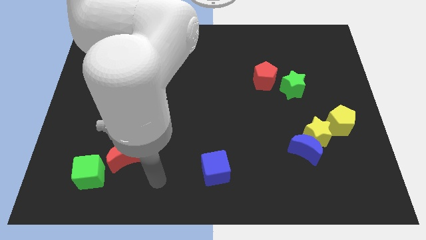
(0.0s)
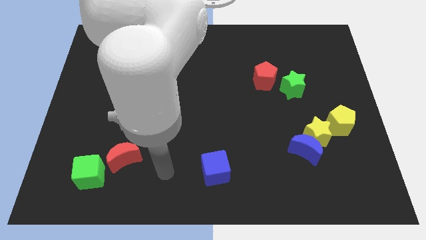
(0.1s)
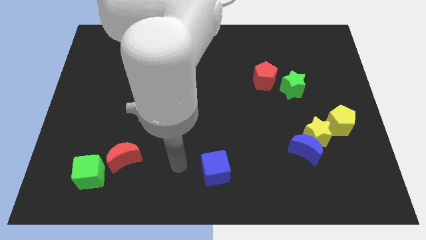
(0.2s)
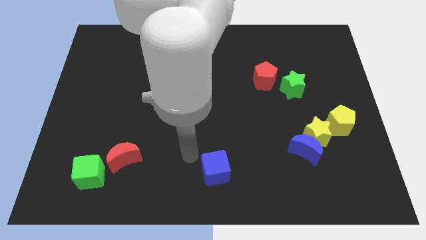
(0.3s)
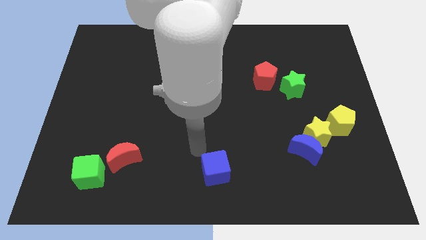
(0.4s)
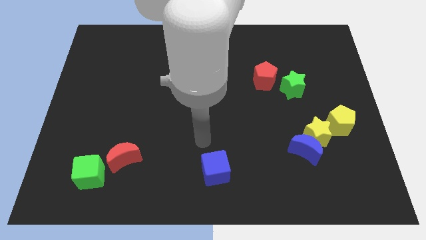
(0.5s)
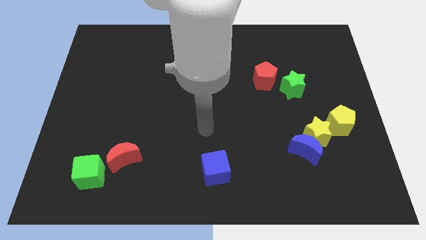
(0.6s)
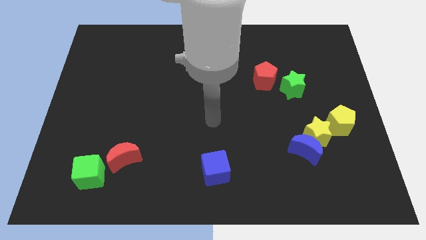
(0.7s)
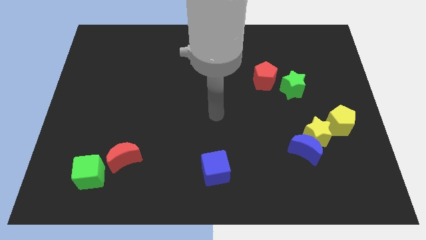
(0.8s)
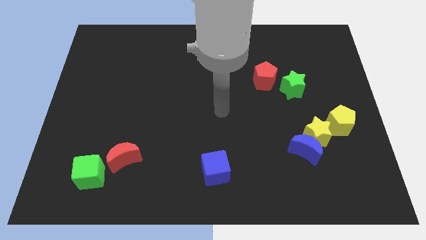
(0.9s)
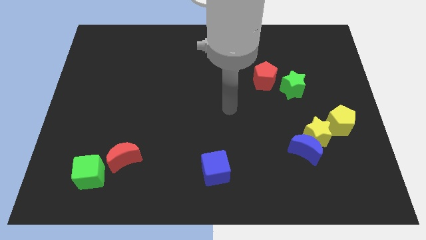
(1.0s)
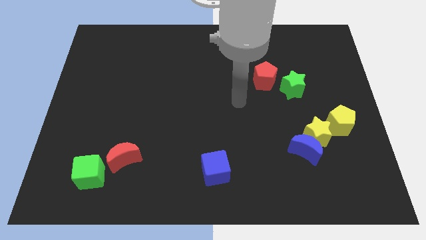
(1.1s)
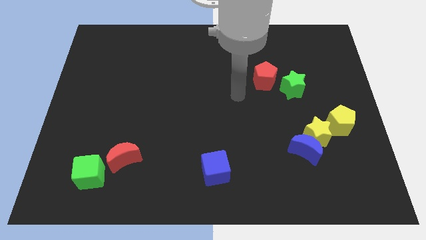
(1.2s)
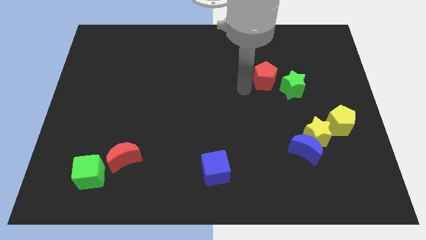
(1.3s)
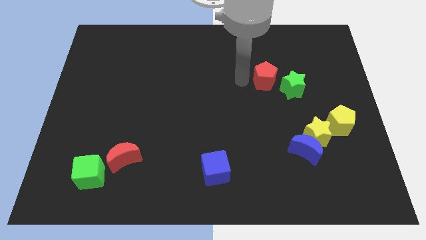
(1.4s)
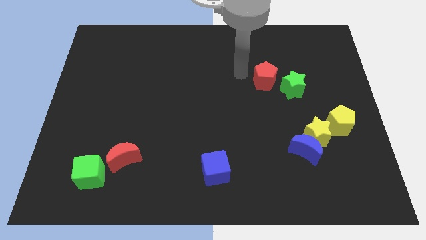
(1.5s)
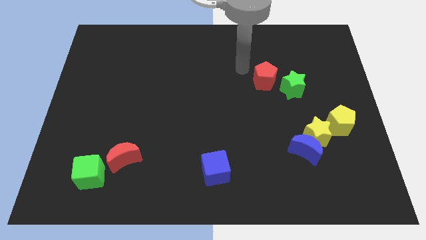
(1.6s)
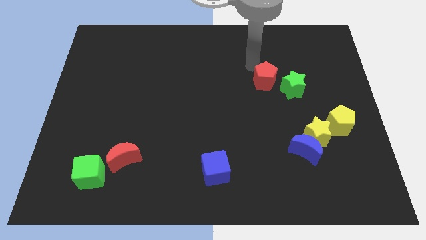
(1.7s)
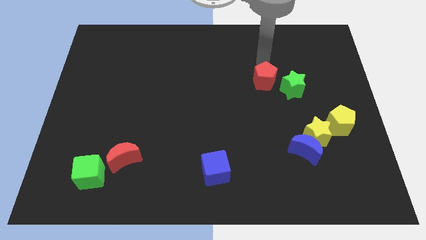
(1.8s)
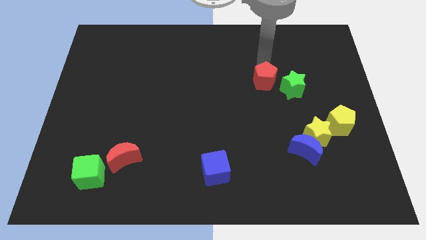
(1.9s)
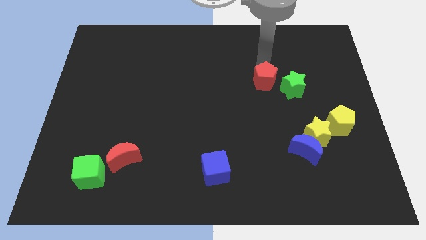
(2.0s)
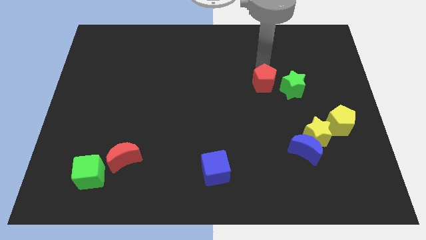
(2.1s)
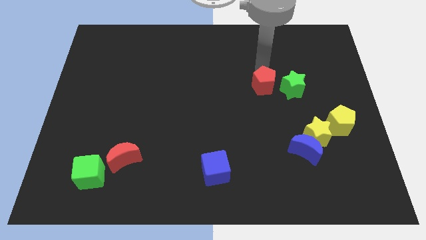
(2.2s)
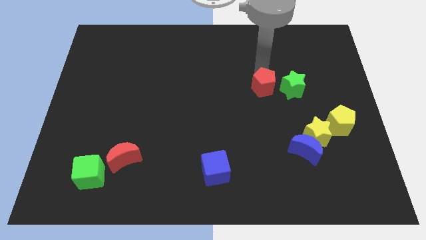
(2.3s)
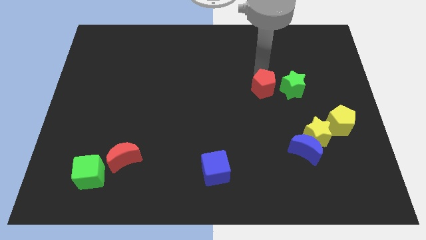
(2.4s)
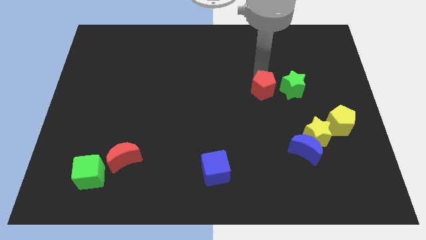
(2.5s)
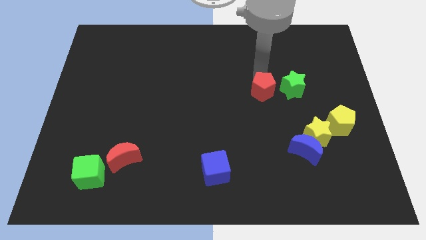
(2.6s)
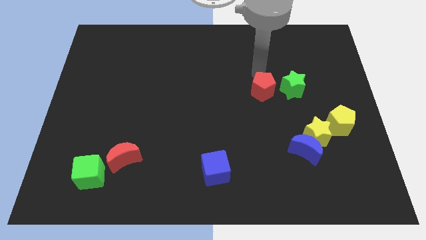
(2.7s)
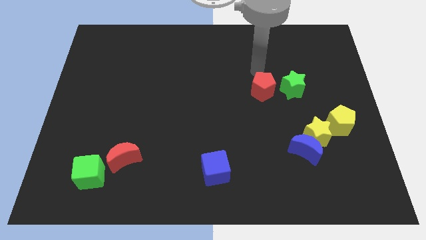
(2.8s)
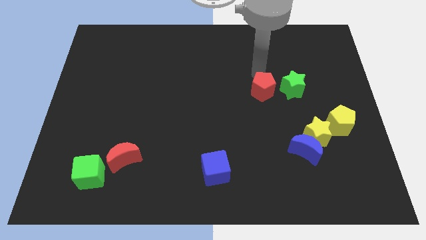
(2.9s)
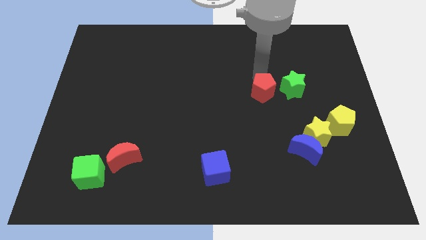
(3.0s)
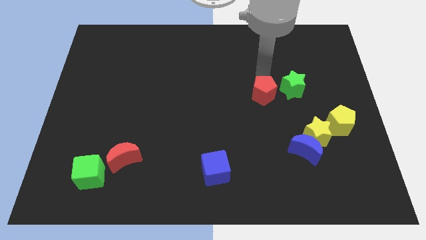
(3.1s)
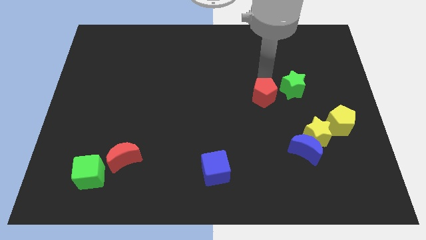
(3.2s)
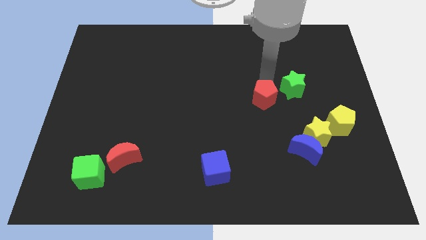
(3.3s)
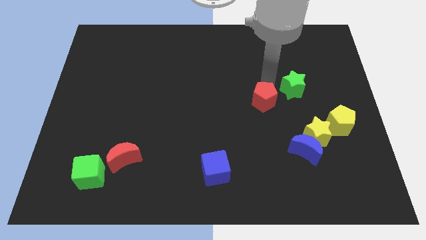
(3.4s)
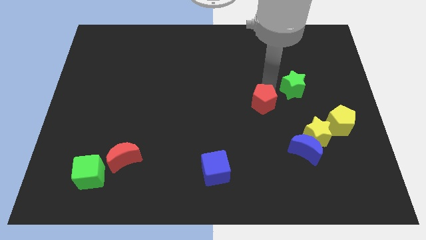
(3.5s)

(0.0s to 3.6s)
slightly push the red pentagon downwards

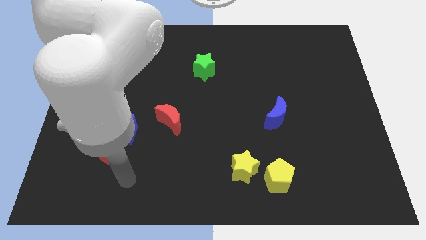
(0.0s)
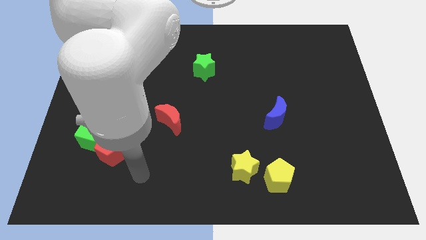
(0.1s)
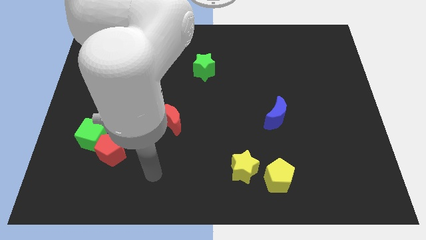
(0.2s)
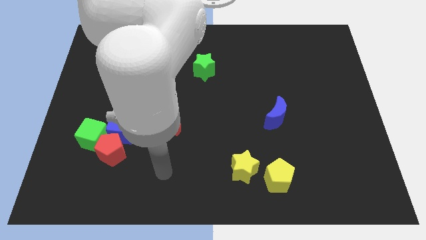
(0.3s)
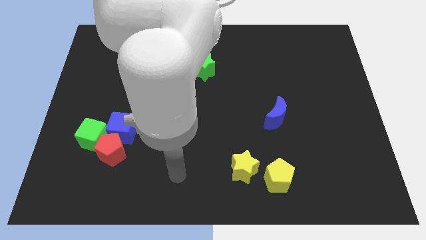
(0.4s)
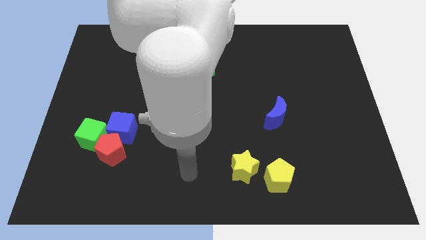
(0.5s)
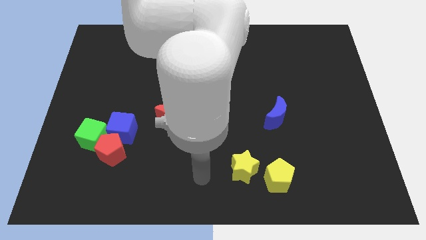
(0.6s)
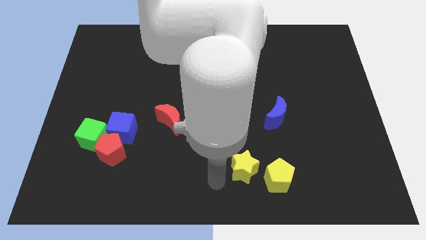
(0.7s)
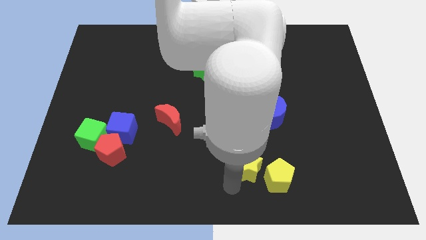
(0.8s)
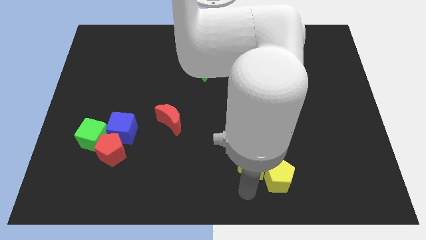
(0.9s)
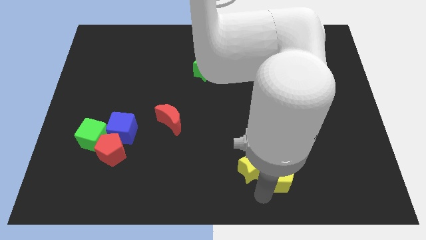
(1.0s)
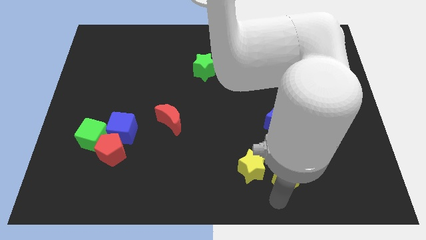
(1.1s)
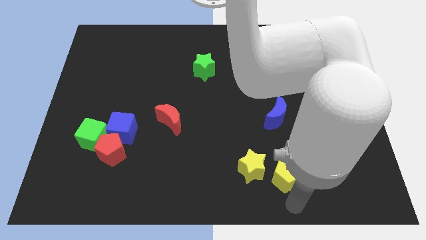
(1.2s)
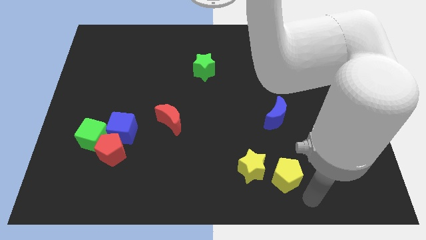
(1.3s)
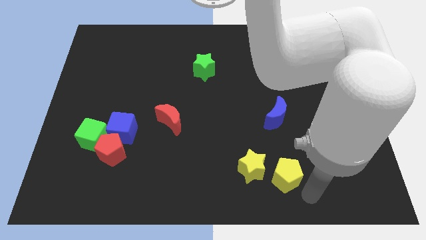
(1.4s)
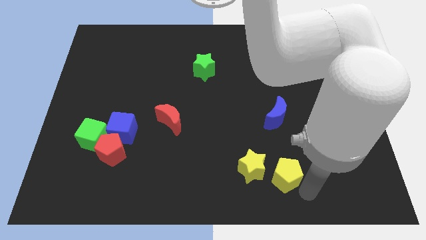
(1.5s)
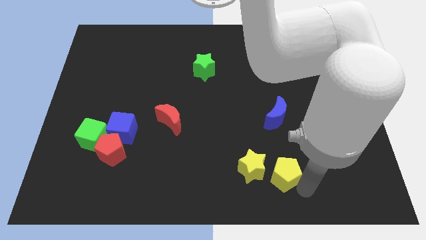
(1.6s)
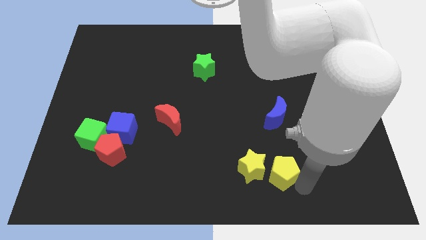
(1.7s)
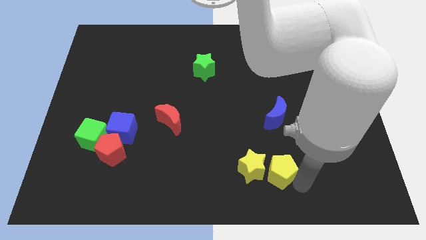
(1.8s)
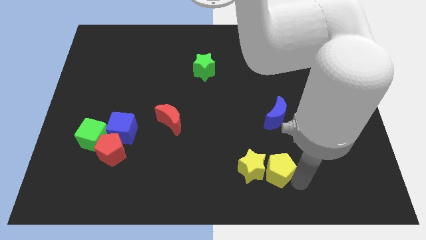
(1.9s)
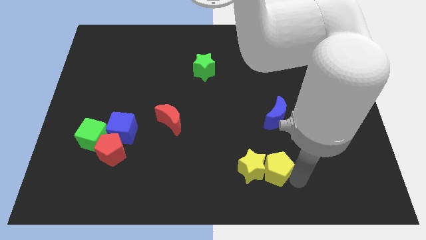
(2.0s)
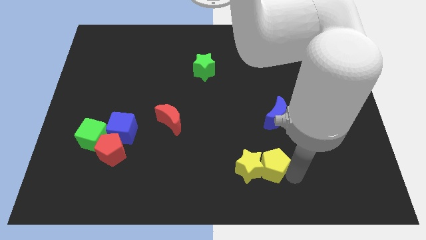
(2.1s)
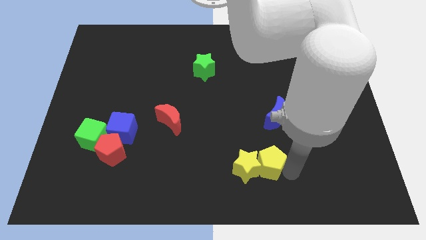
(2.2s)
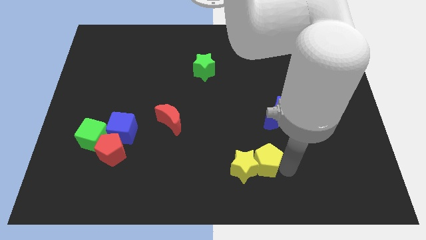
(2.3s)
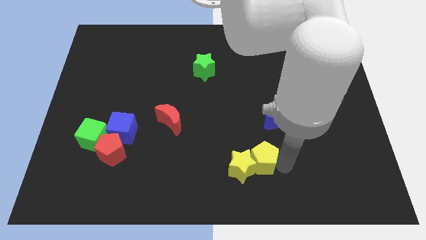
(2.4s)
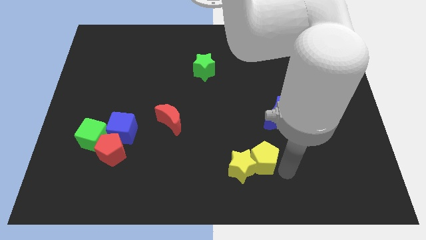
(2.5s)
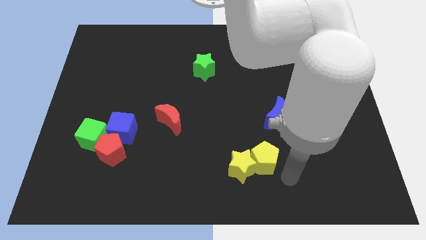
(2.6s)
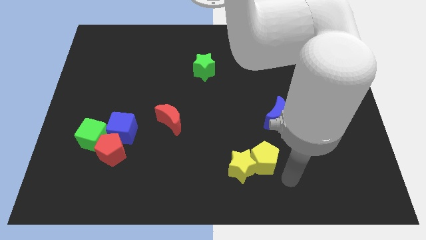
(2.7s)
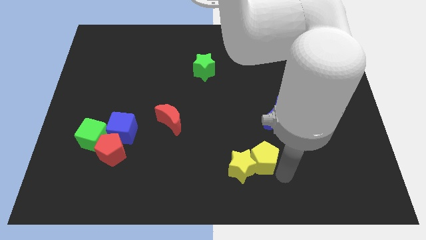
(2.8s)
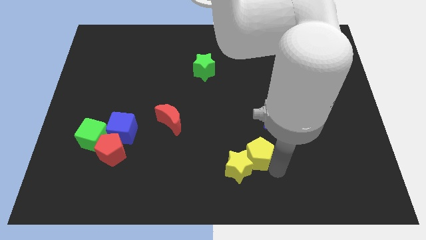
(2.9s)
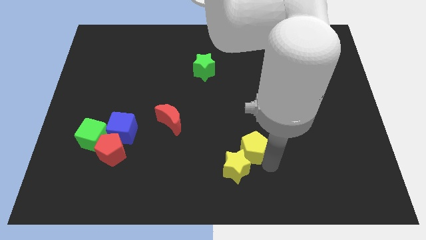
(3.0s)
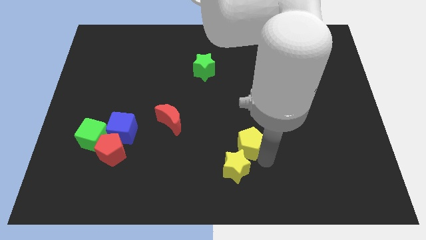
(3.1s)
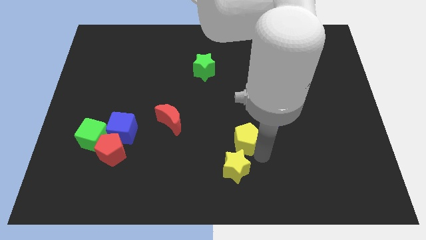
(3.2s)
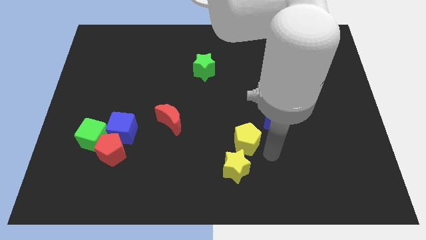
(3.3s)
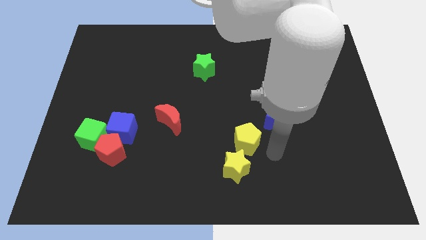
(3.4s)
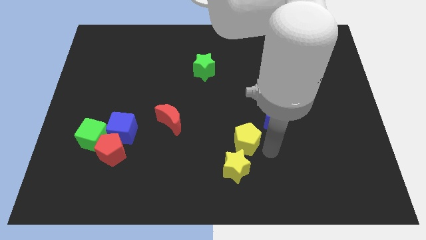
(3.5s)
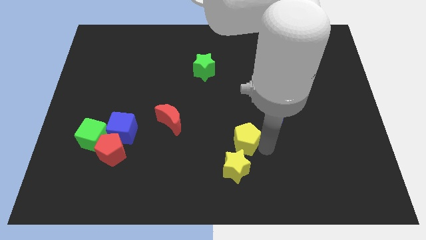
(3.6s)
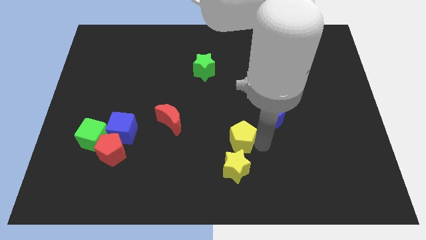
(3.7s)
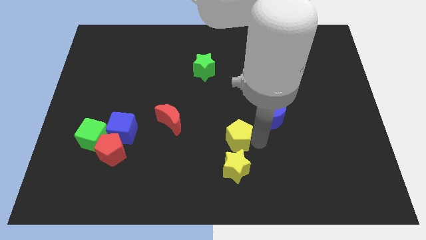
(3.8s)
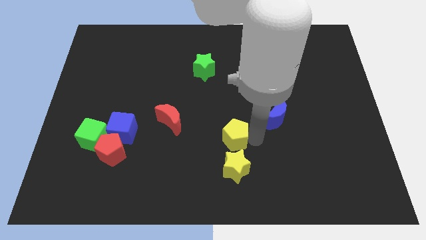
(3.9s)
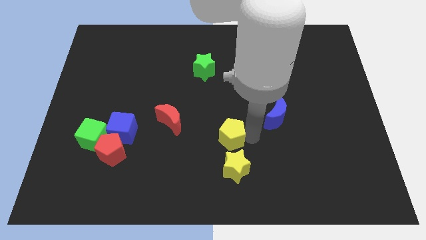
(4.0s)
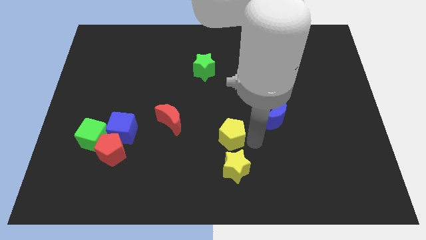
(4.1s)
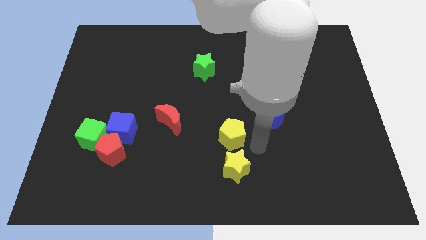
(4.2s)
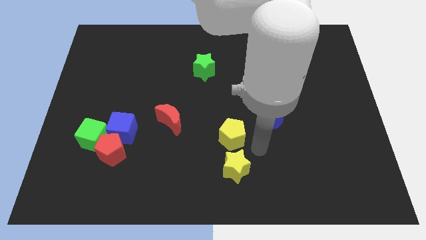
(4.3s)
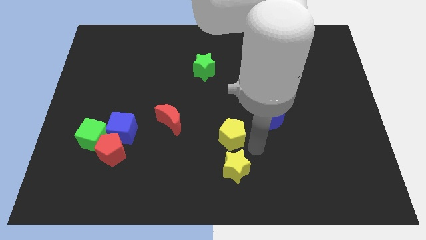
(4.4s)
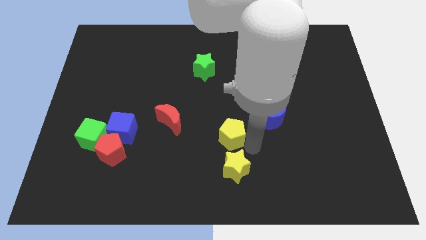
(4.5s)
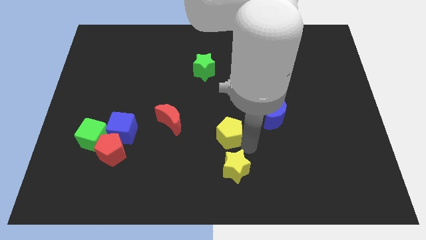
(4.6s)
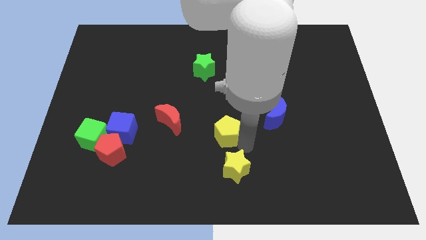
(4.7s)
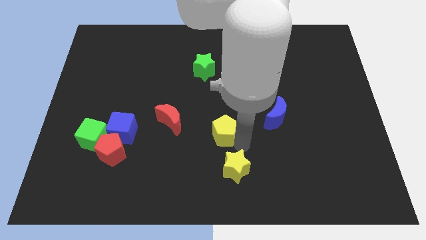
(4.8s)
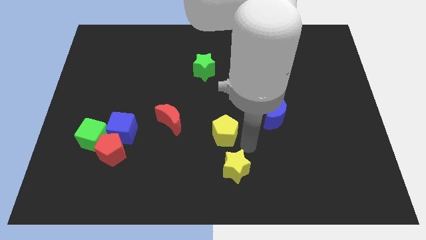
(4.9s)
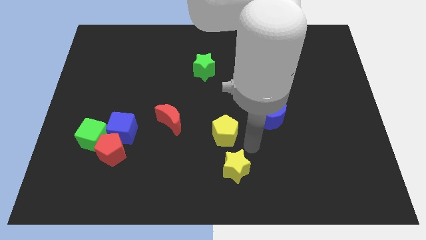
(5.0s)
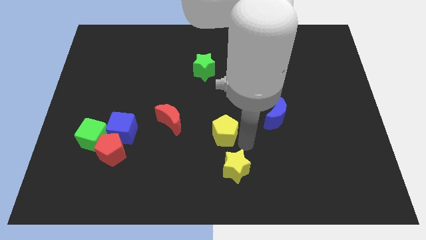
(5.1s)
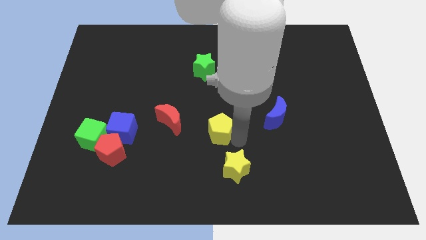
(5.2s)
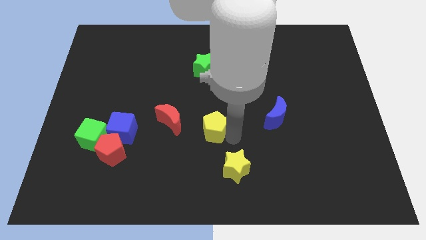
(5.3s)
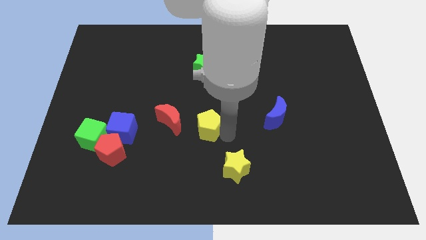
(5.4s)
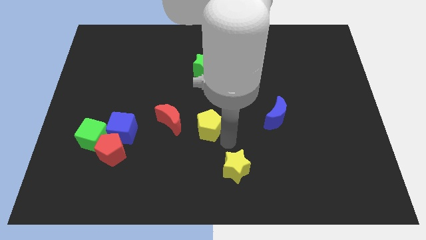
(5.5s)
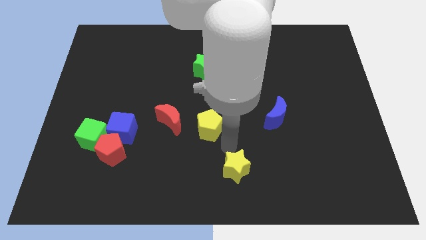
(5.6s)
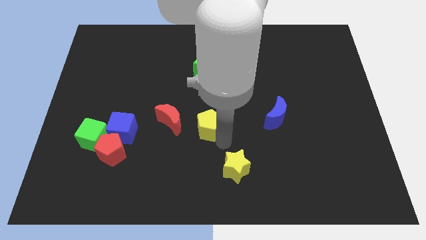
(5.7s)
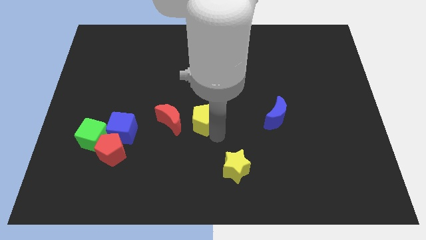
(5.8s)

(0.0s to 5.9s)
slide the yellow pentagon diagonally up and left
